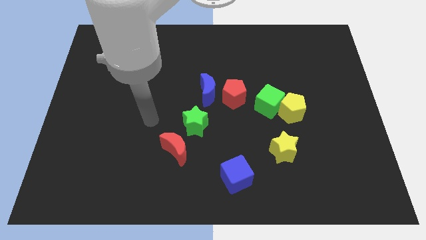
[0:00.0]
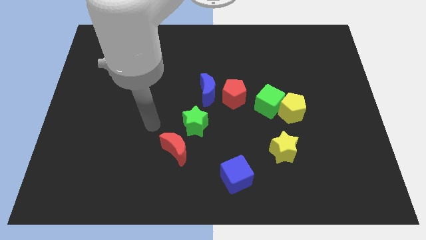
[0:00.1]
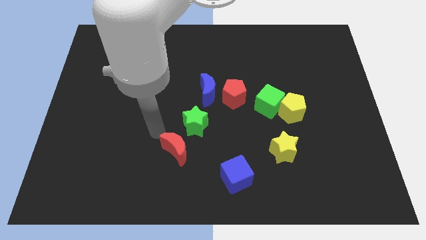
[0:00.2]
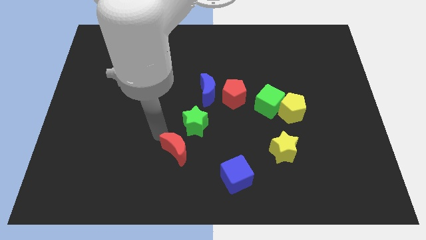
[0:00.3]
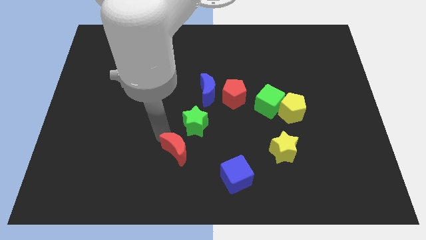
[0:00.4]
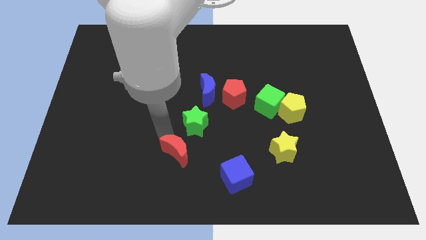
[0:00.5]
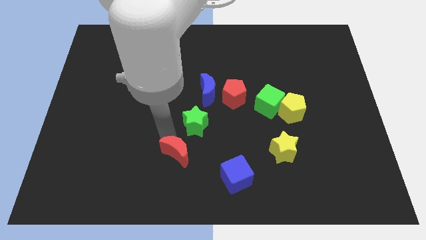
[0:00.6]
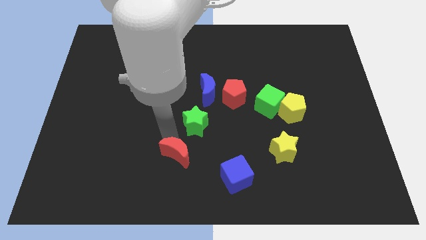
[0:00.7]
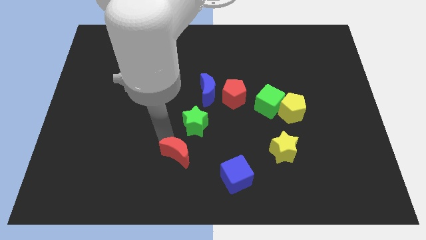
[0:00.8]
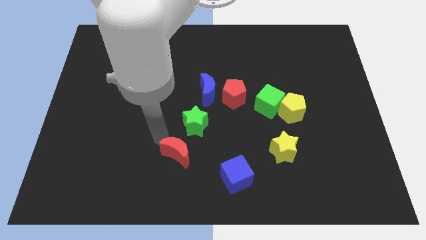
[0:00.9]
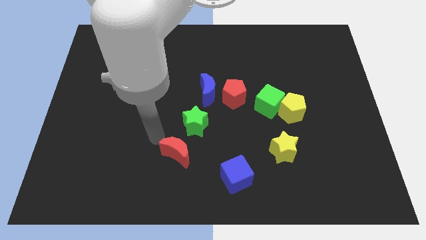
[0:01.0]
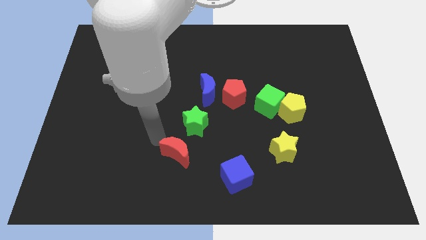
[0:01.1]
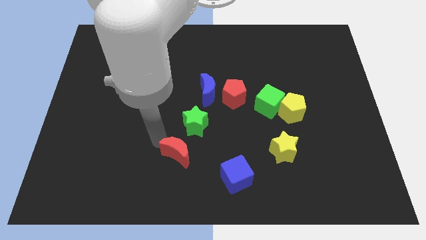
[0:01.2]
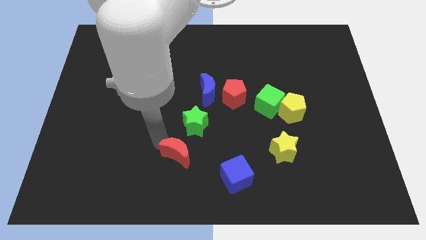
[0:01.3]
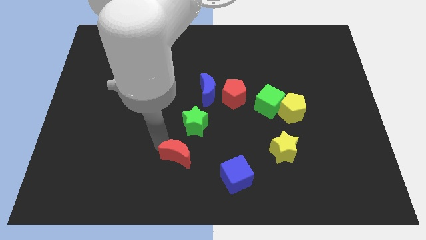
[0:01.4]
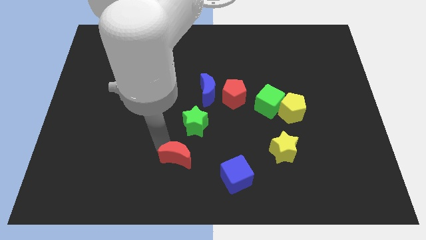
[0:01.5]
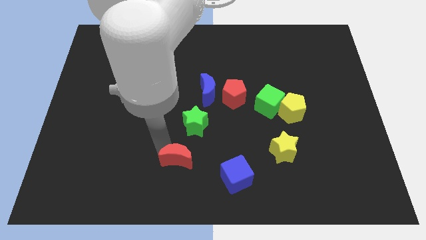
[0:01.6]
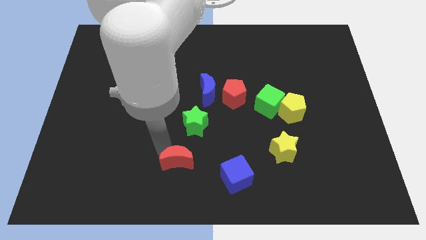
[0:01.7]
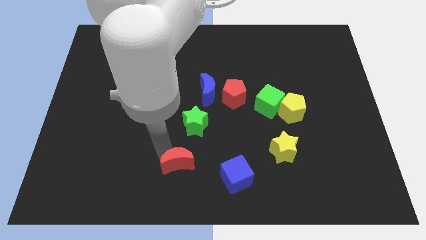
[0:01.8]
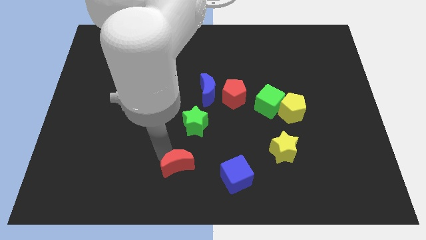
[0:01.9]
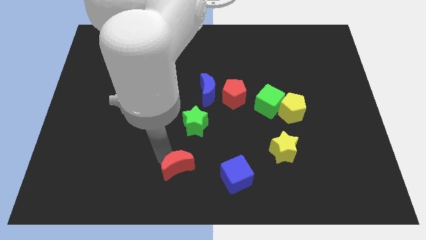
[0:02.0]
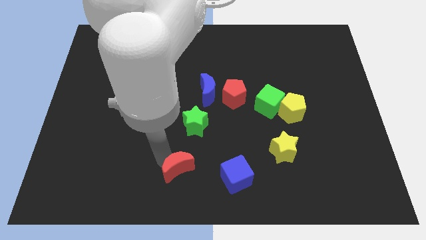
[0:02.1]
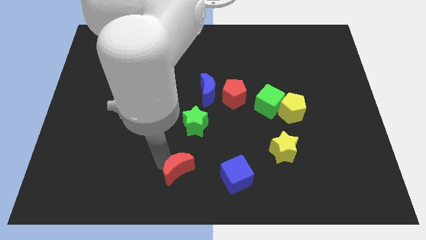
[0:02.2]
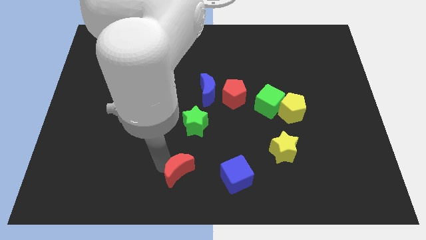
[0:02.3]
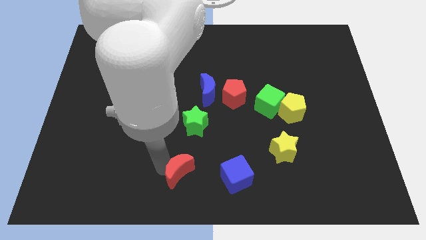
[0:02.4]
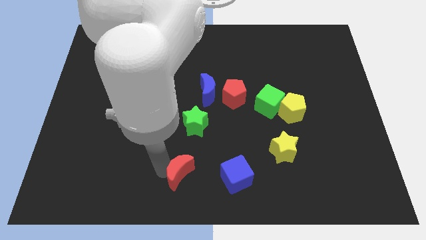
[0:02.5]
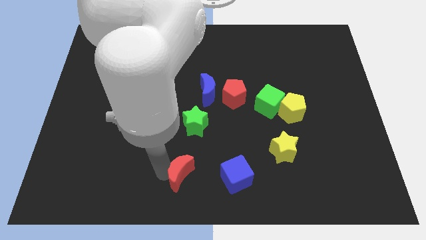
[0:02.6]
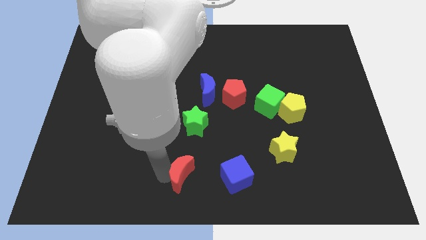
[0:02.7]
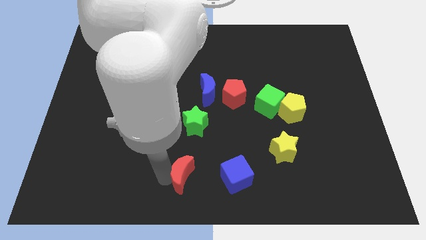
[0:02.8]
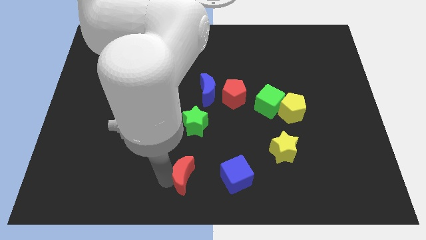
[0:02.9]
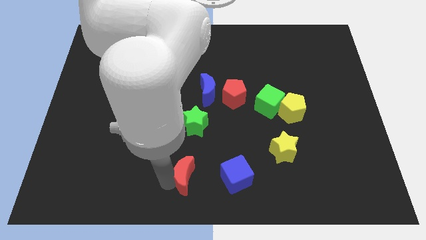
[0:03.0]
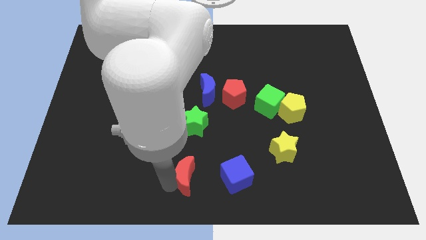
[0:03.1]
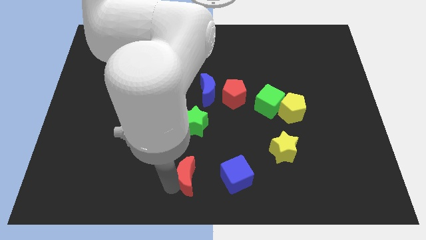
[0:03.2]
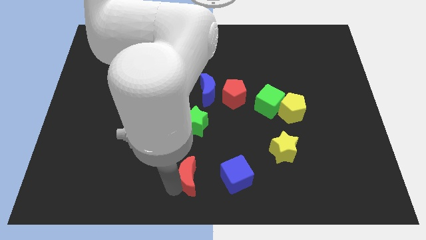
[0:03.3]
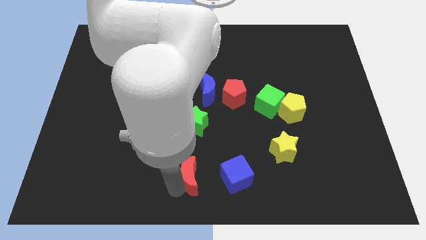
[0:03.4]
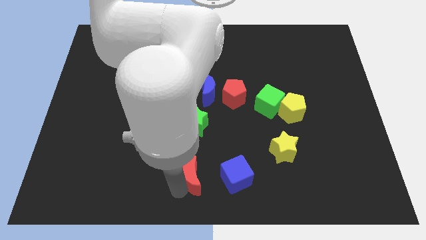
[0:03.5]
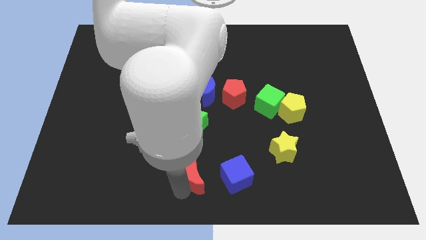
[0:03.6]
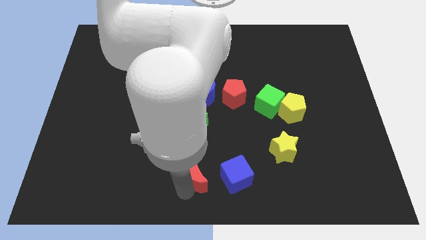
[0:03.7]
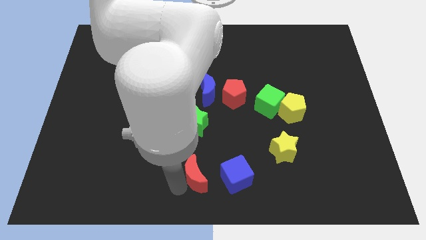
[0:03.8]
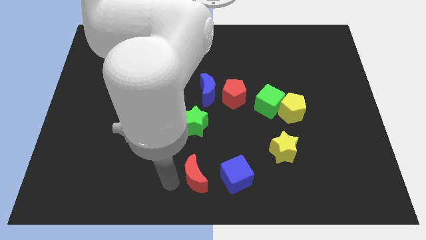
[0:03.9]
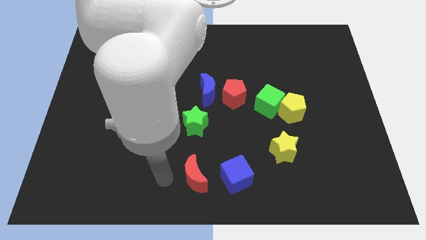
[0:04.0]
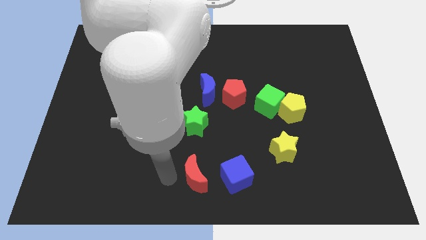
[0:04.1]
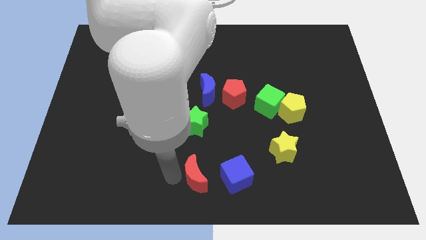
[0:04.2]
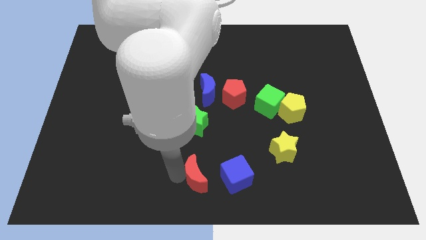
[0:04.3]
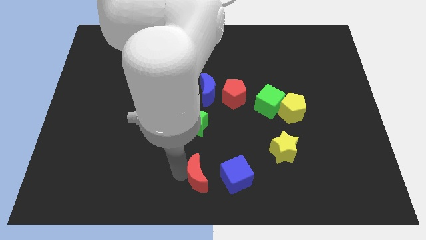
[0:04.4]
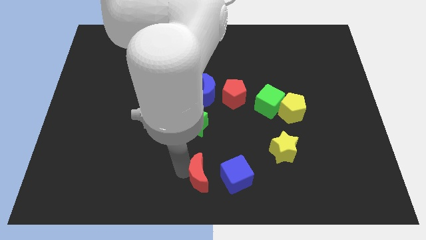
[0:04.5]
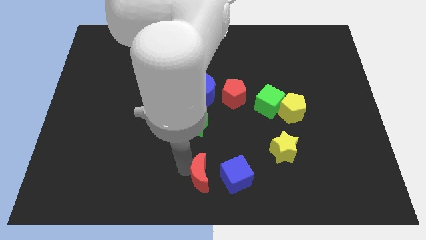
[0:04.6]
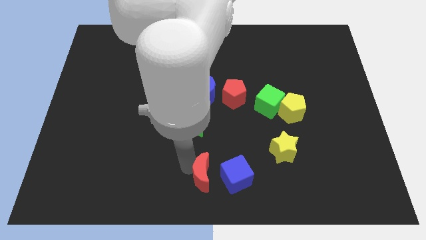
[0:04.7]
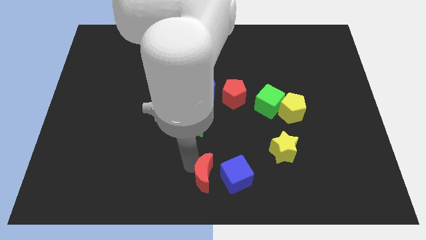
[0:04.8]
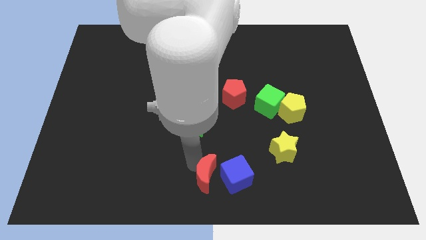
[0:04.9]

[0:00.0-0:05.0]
move the red moon next to the blue cube

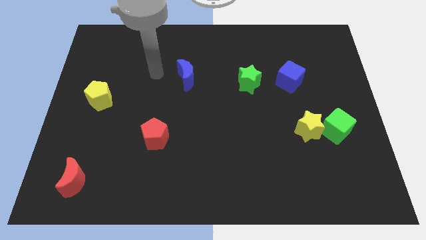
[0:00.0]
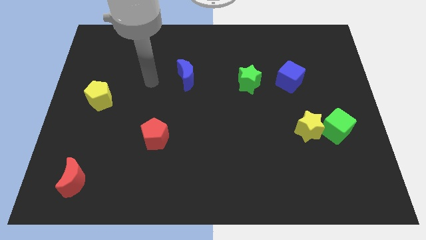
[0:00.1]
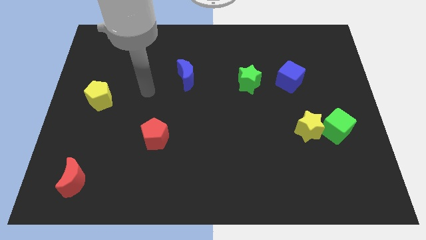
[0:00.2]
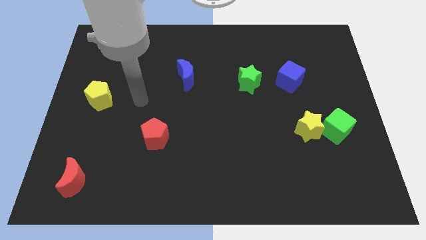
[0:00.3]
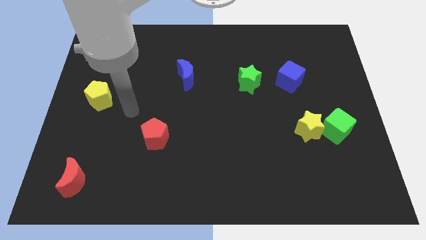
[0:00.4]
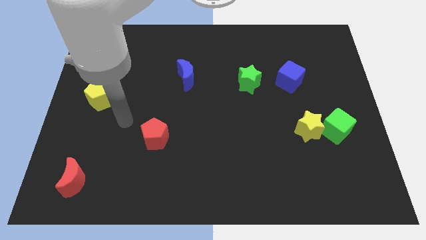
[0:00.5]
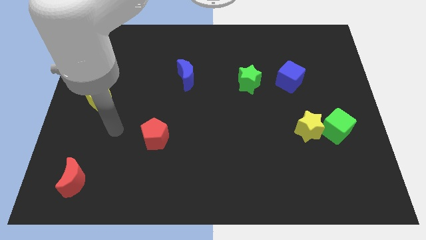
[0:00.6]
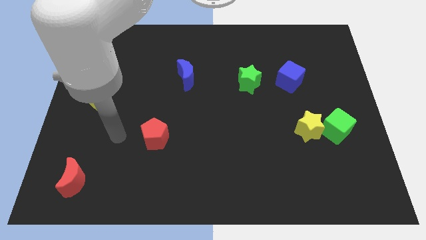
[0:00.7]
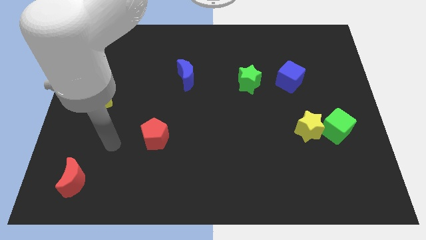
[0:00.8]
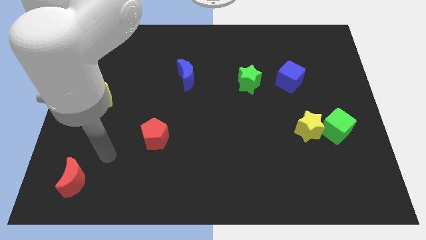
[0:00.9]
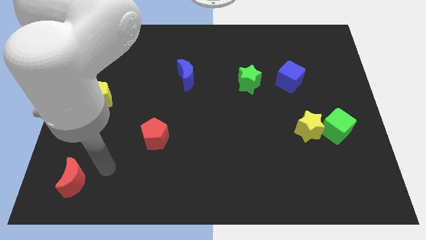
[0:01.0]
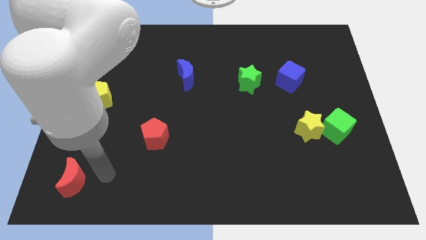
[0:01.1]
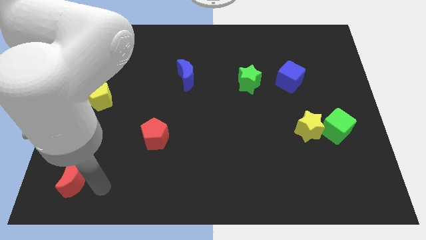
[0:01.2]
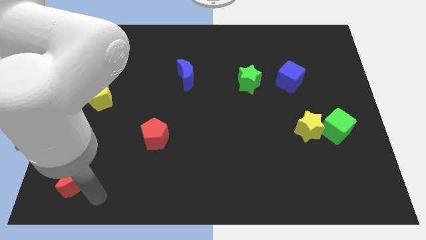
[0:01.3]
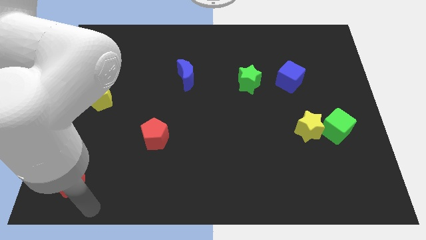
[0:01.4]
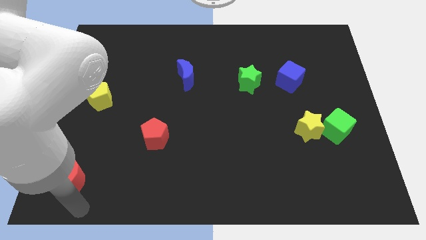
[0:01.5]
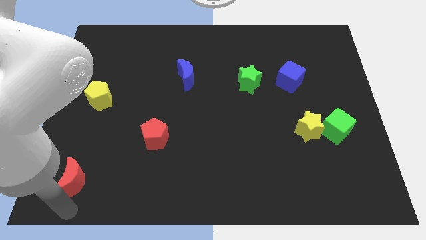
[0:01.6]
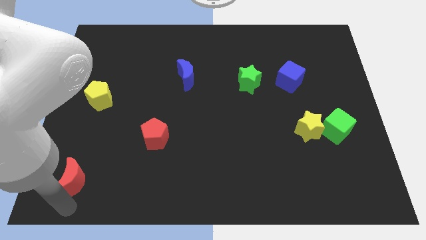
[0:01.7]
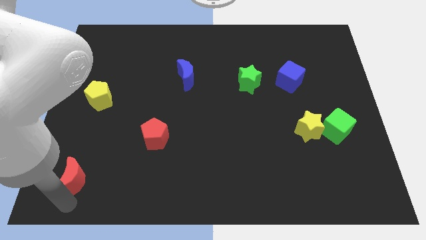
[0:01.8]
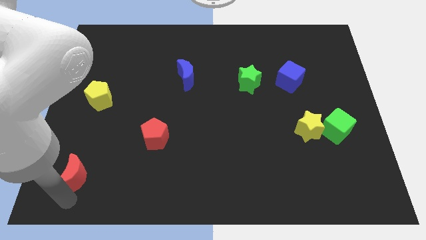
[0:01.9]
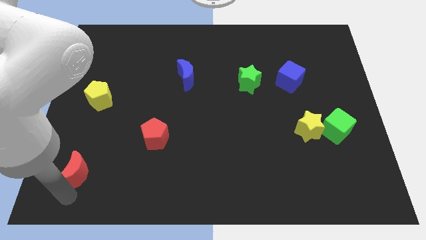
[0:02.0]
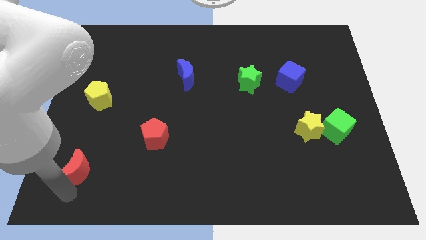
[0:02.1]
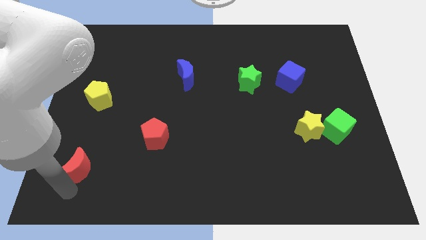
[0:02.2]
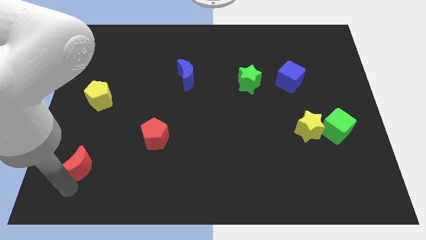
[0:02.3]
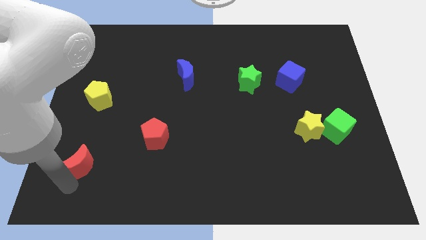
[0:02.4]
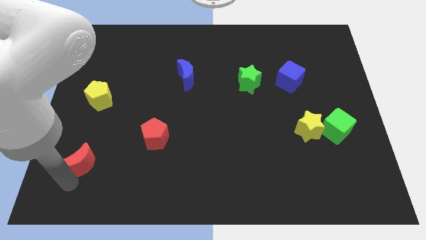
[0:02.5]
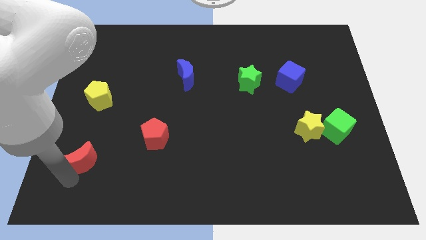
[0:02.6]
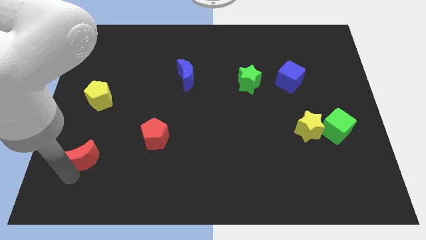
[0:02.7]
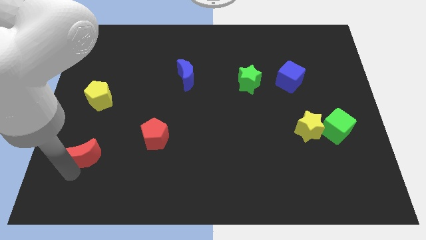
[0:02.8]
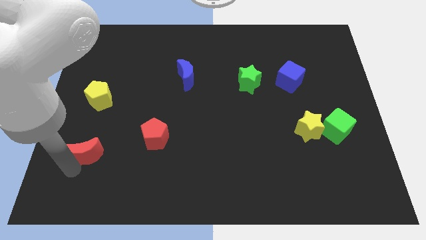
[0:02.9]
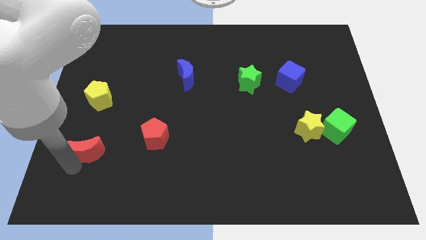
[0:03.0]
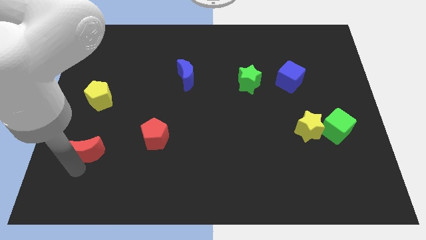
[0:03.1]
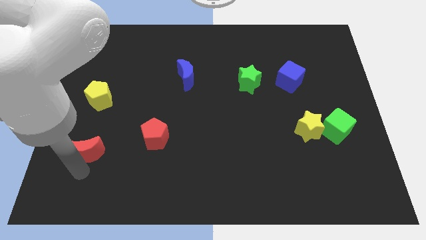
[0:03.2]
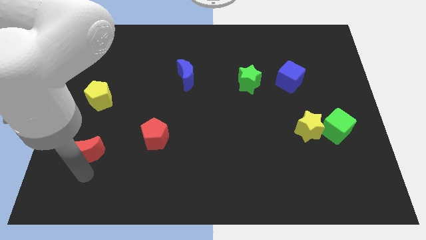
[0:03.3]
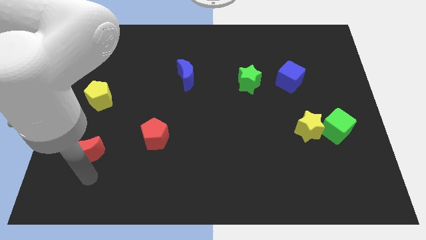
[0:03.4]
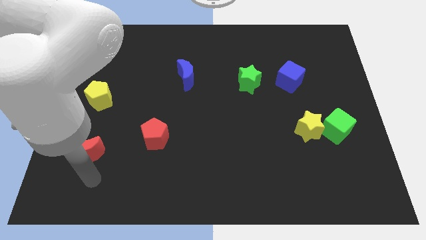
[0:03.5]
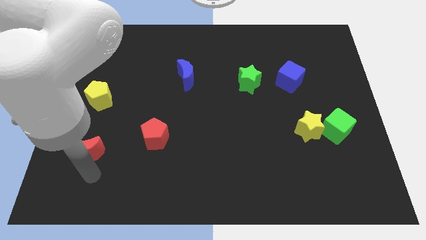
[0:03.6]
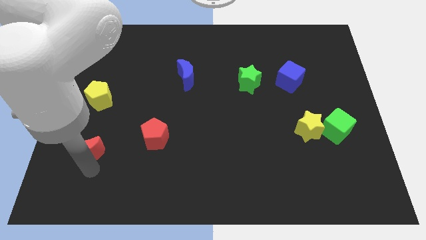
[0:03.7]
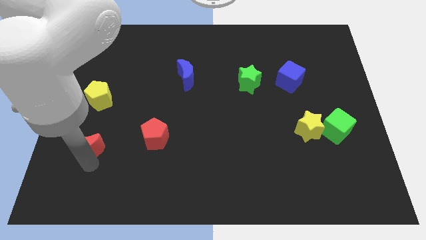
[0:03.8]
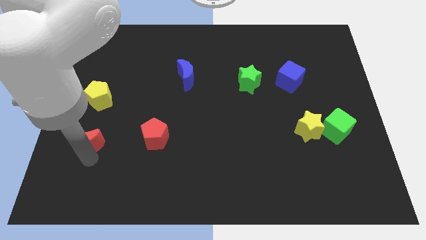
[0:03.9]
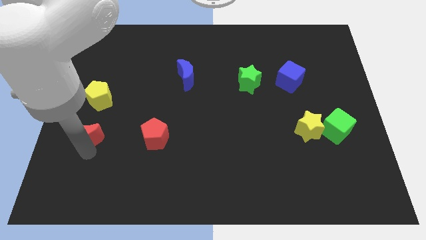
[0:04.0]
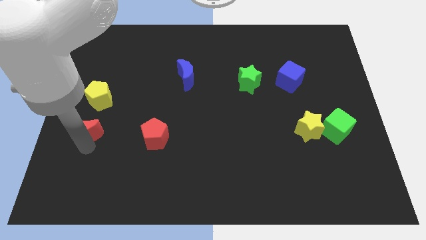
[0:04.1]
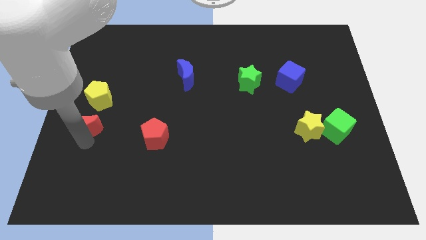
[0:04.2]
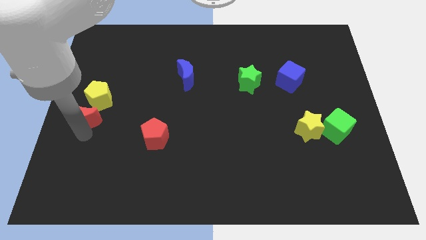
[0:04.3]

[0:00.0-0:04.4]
move the red moon close to the yellow pentagon
